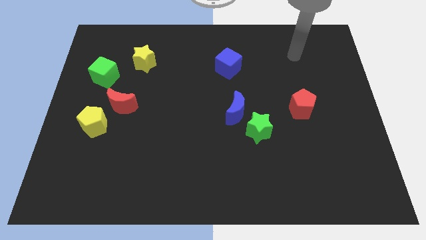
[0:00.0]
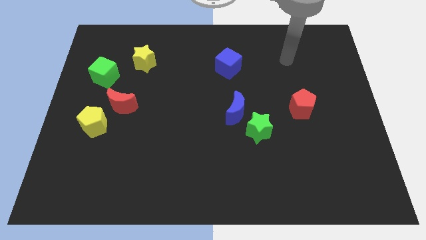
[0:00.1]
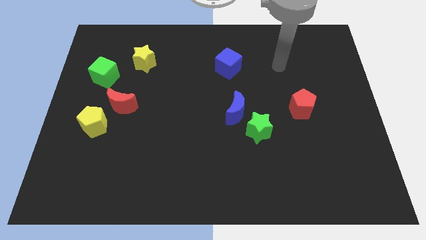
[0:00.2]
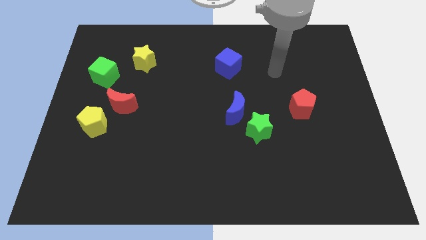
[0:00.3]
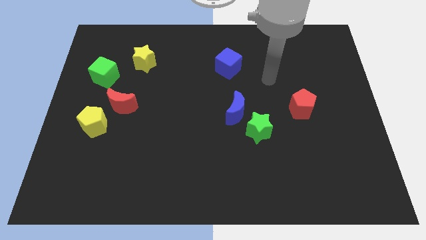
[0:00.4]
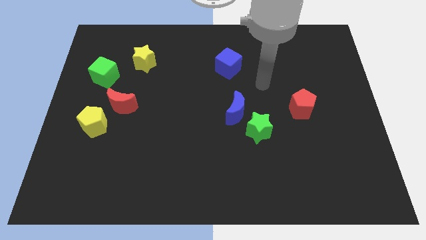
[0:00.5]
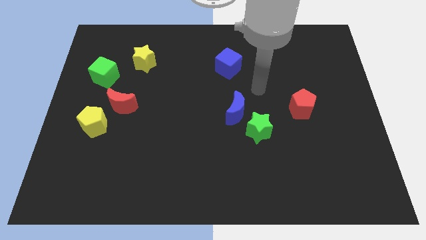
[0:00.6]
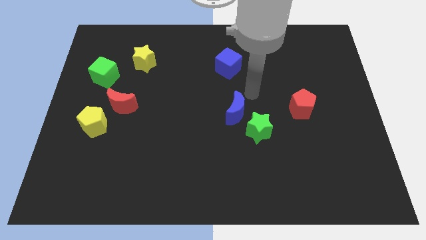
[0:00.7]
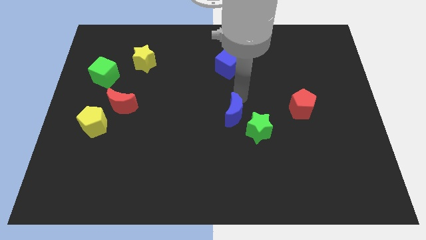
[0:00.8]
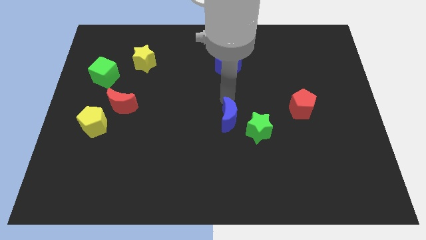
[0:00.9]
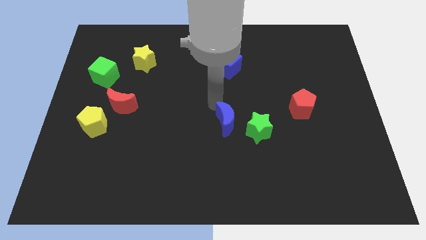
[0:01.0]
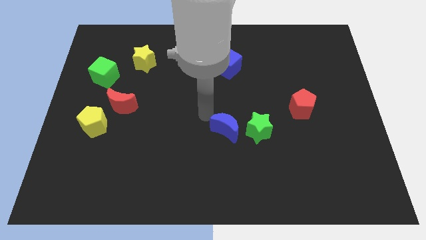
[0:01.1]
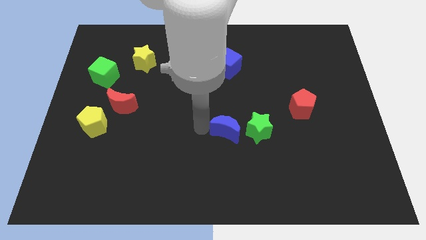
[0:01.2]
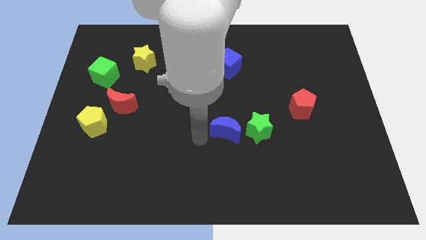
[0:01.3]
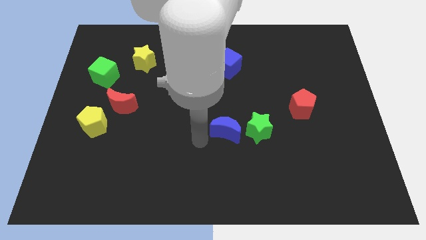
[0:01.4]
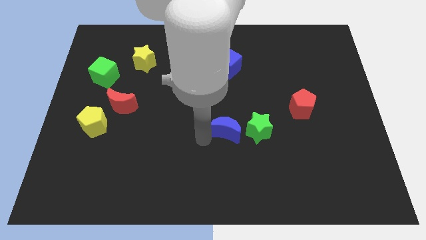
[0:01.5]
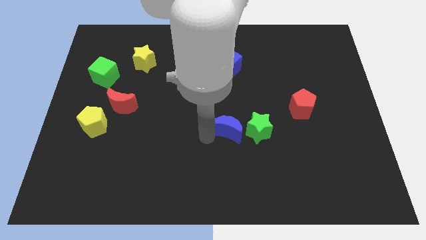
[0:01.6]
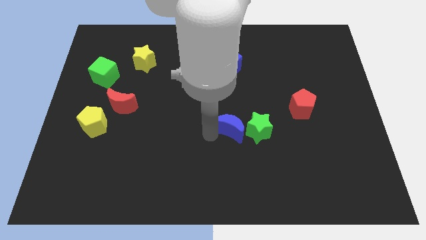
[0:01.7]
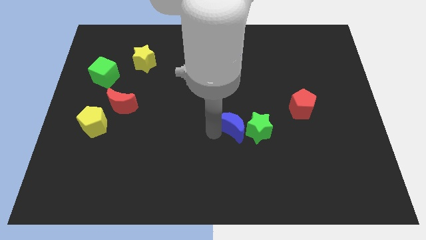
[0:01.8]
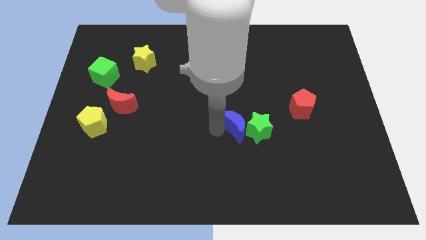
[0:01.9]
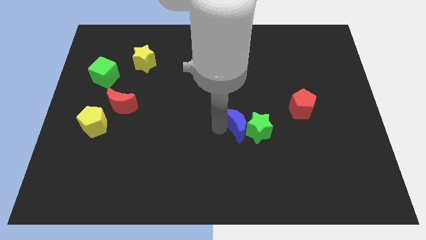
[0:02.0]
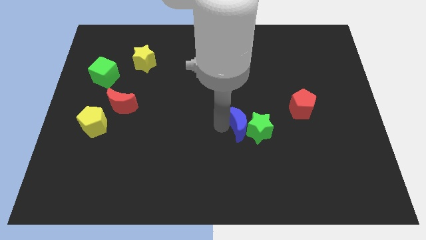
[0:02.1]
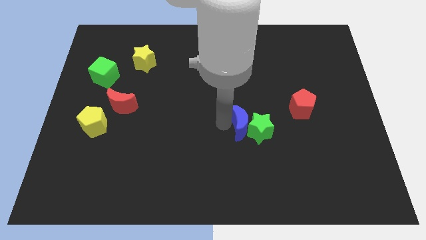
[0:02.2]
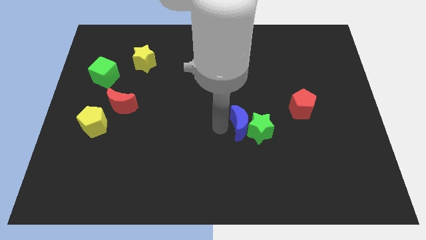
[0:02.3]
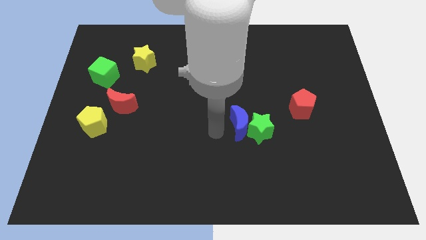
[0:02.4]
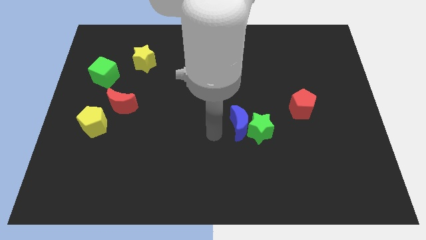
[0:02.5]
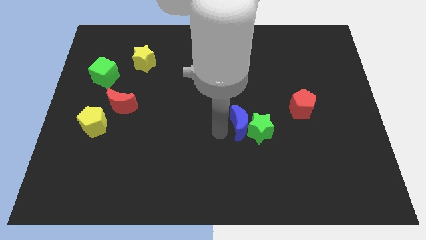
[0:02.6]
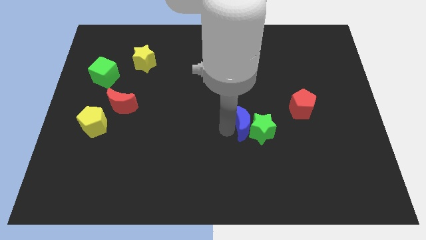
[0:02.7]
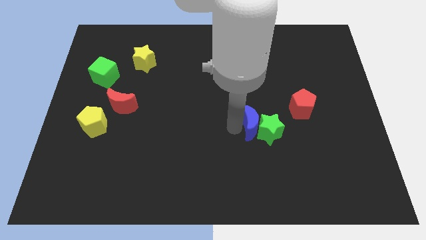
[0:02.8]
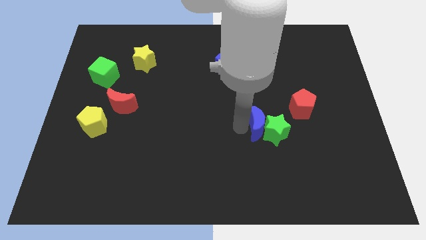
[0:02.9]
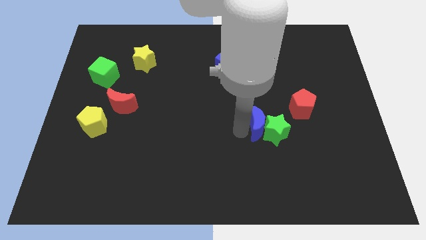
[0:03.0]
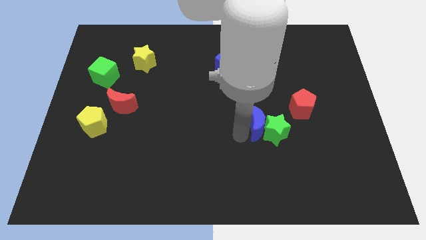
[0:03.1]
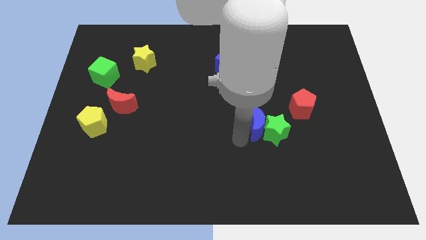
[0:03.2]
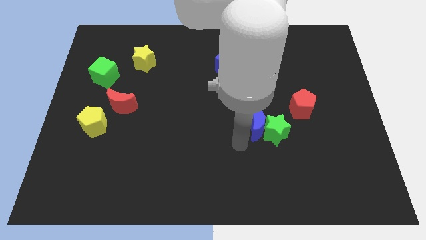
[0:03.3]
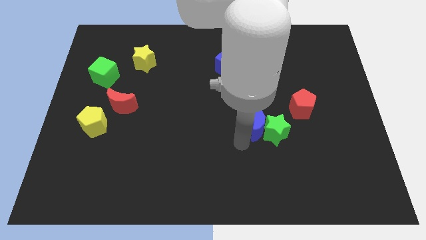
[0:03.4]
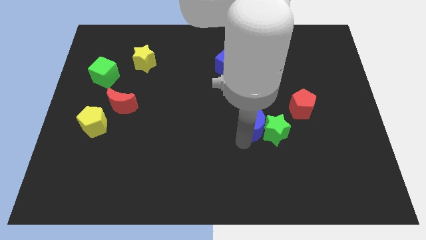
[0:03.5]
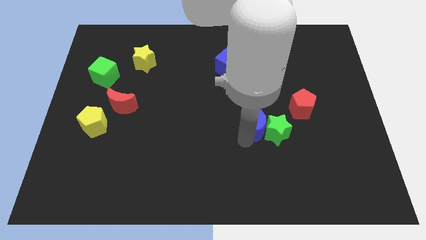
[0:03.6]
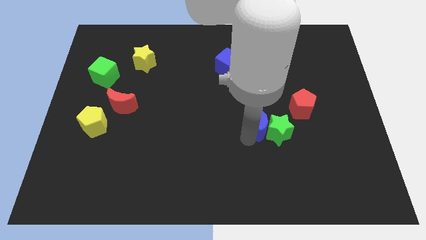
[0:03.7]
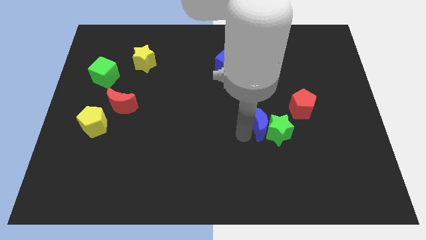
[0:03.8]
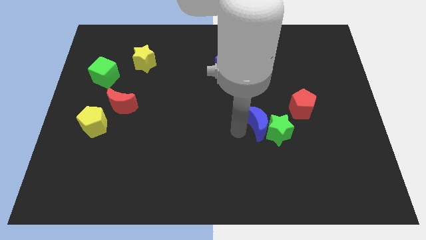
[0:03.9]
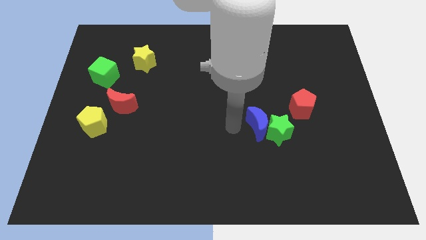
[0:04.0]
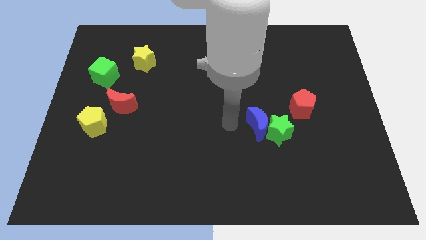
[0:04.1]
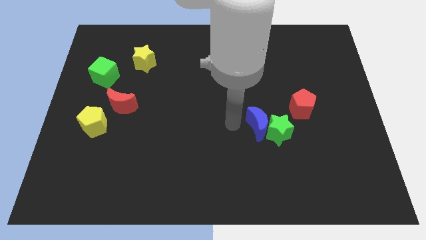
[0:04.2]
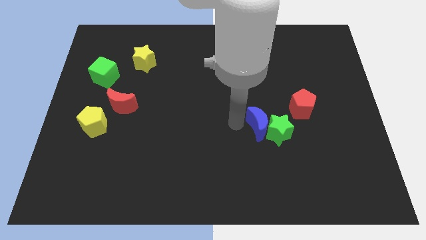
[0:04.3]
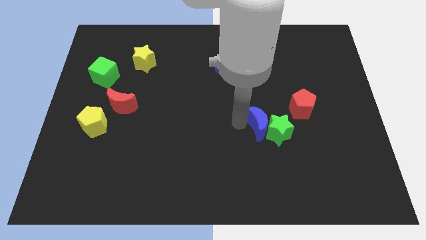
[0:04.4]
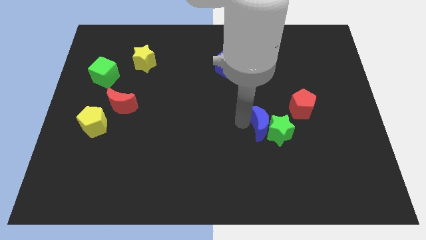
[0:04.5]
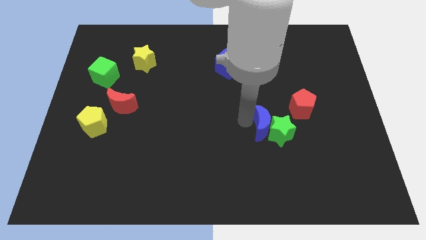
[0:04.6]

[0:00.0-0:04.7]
slightly slide the blue moon down and right diagonally

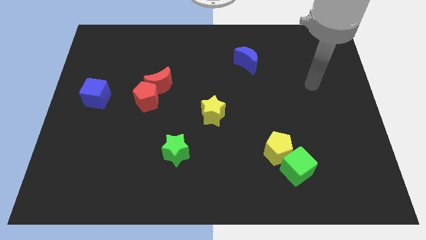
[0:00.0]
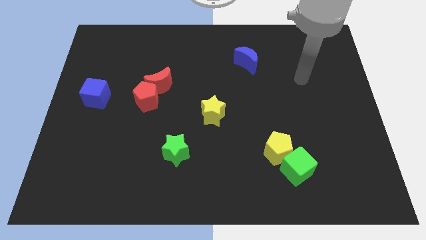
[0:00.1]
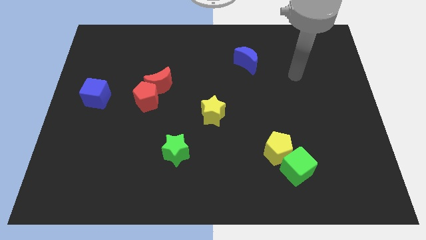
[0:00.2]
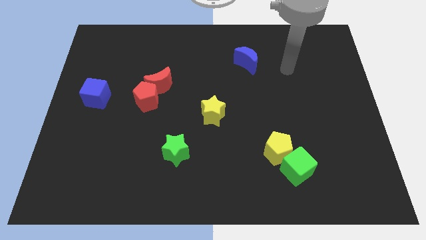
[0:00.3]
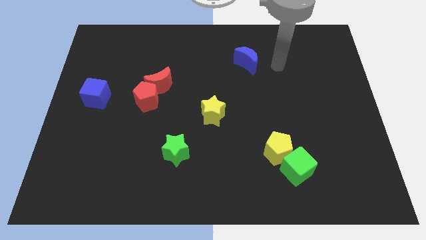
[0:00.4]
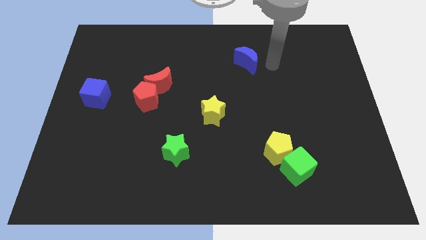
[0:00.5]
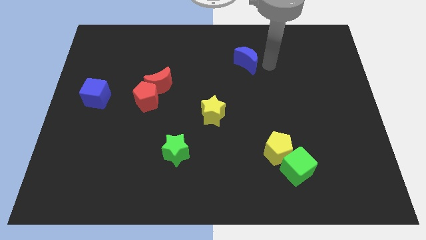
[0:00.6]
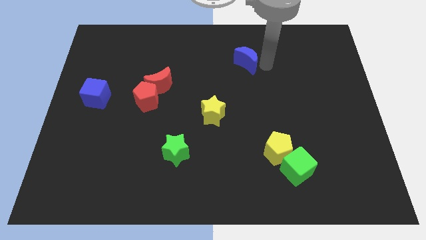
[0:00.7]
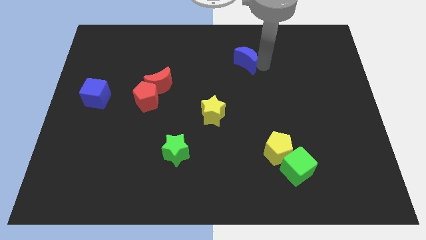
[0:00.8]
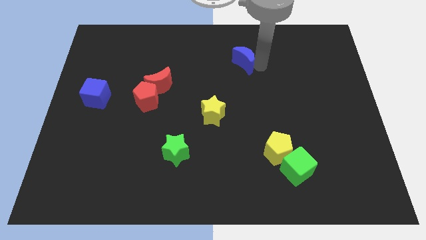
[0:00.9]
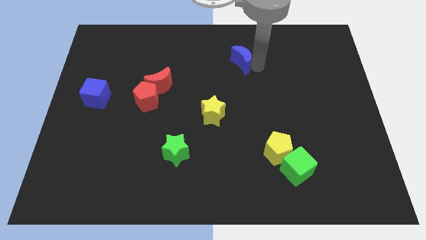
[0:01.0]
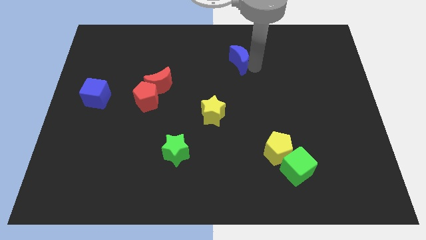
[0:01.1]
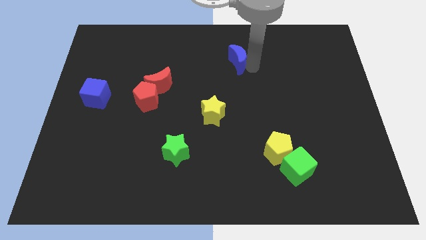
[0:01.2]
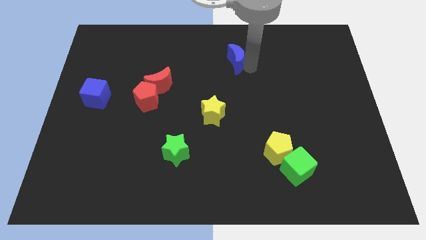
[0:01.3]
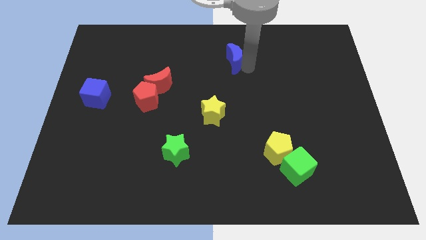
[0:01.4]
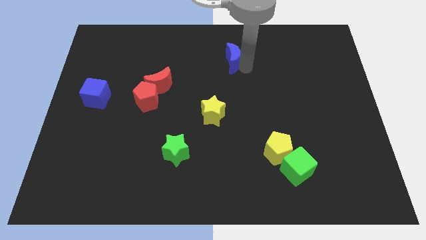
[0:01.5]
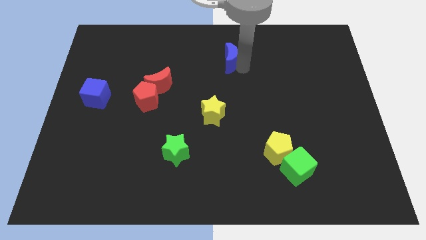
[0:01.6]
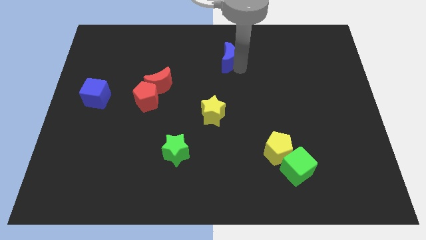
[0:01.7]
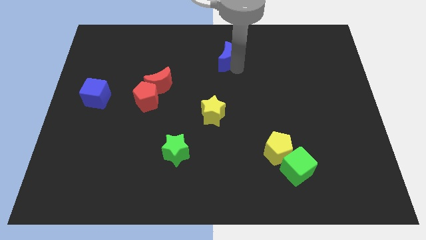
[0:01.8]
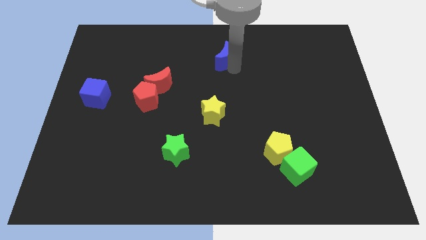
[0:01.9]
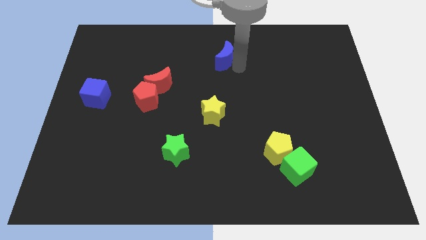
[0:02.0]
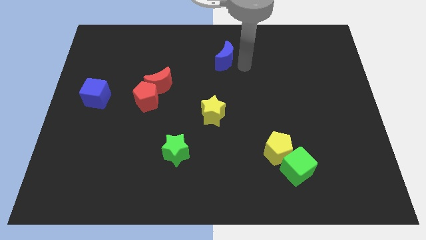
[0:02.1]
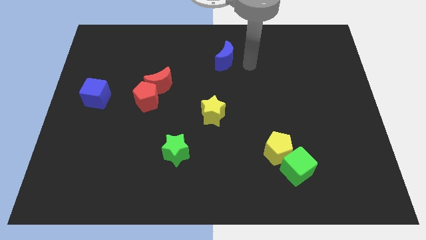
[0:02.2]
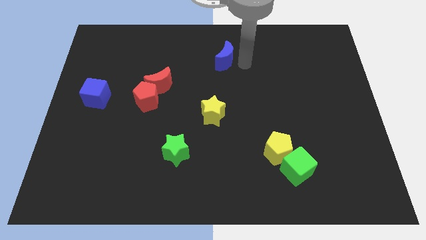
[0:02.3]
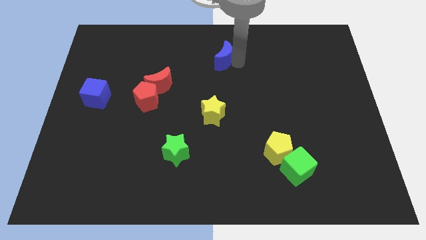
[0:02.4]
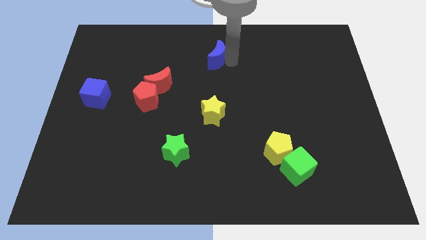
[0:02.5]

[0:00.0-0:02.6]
slide the blue moon slightly to the left

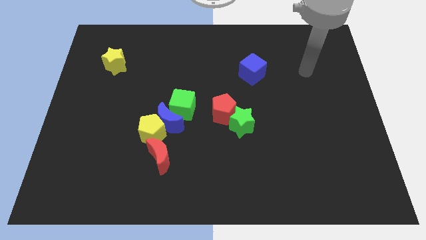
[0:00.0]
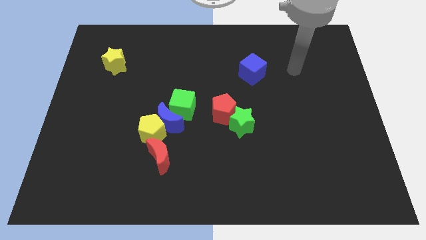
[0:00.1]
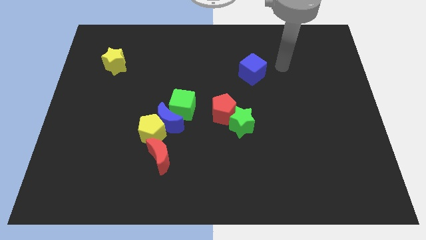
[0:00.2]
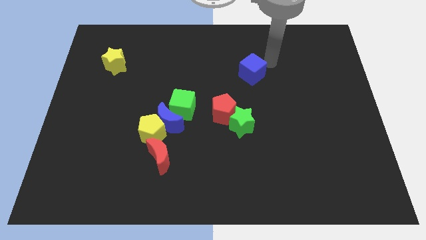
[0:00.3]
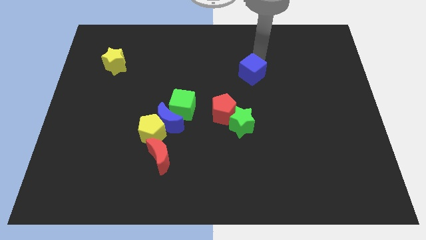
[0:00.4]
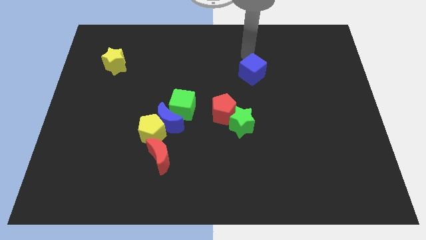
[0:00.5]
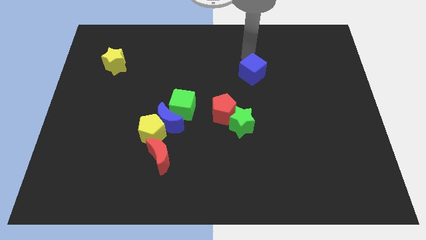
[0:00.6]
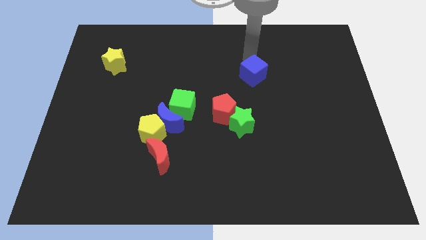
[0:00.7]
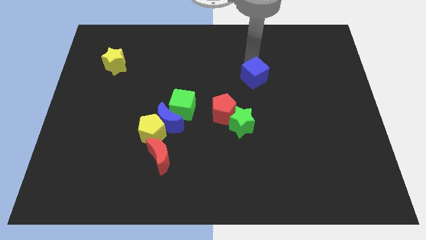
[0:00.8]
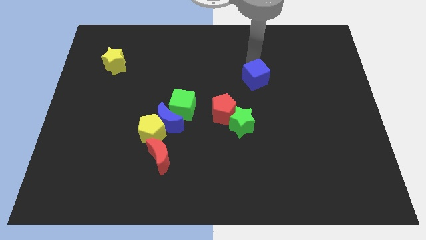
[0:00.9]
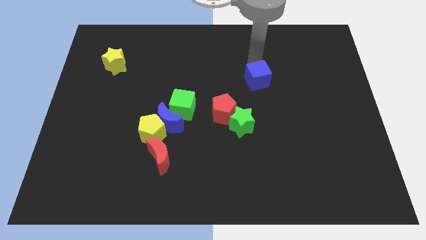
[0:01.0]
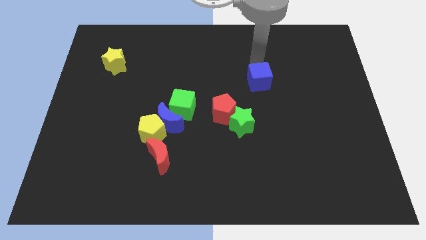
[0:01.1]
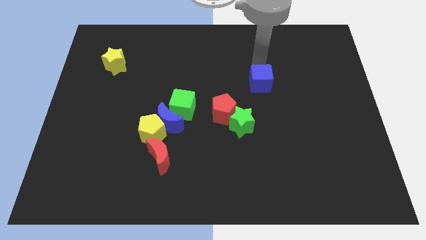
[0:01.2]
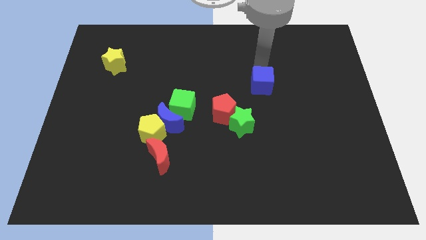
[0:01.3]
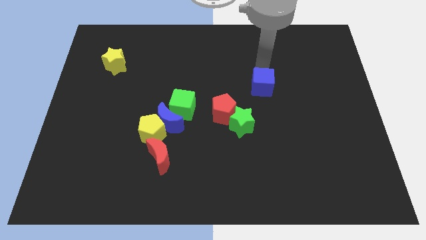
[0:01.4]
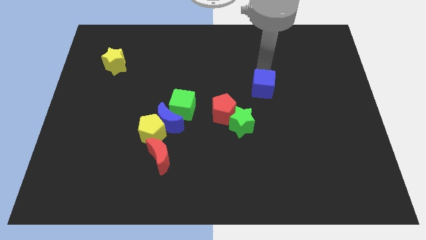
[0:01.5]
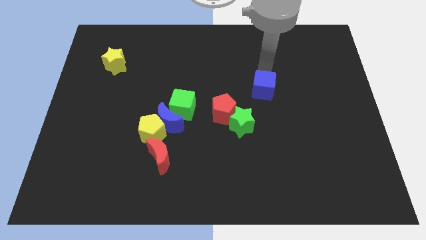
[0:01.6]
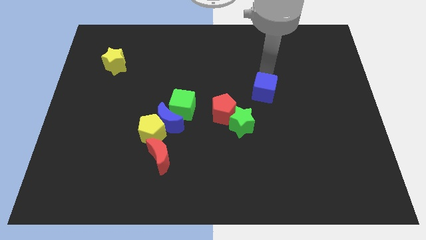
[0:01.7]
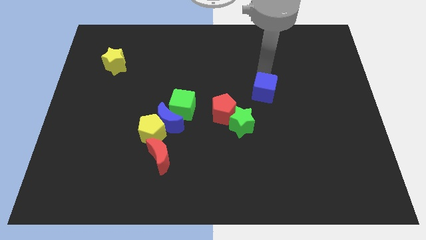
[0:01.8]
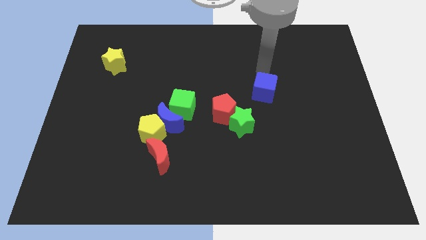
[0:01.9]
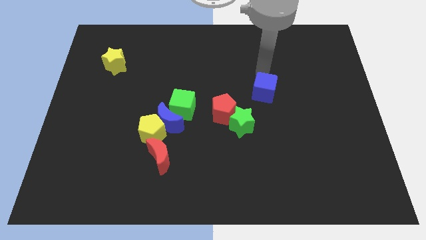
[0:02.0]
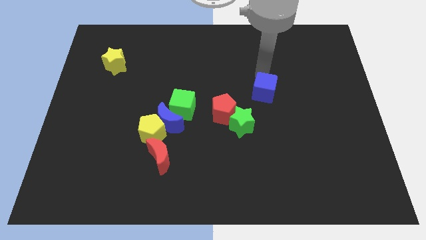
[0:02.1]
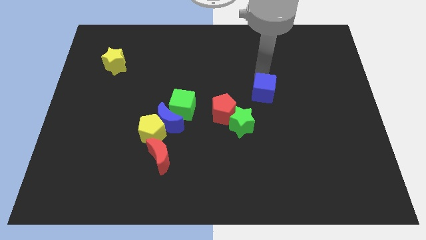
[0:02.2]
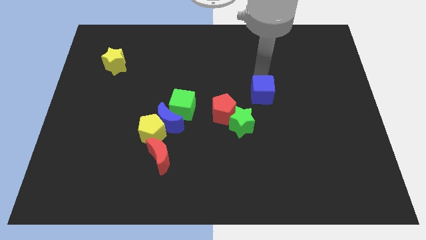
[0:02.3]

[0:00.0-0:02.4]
slightly slide the blue cube downwards
